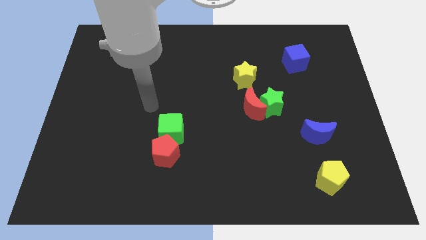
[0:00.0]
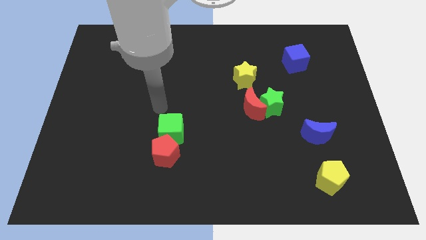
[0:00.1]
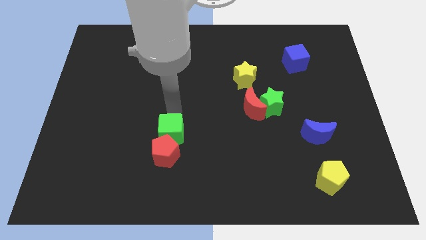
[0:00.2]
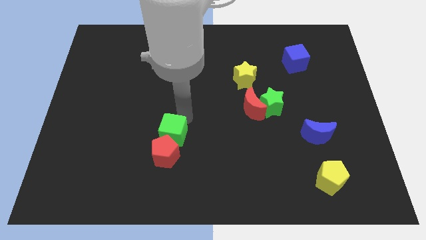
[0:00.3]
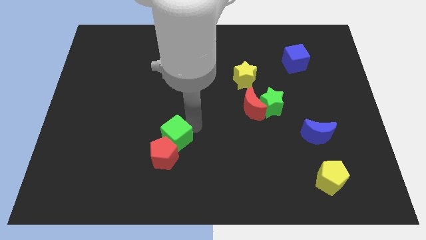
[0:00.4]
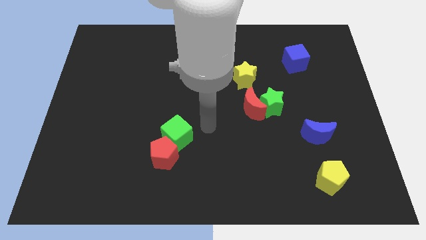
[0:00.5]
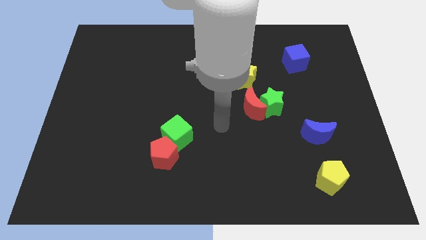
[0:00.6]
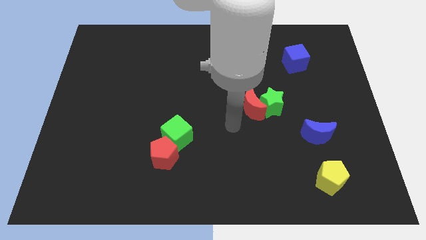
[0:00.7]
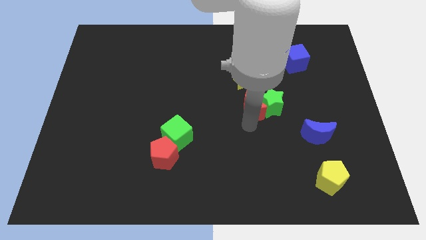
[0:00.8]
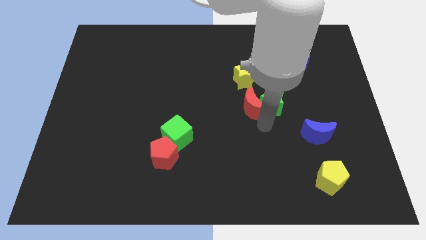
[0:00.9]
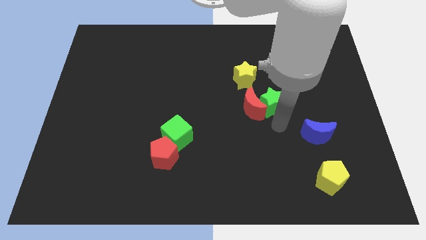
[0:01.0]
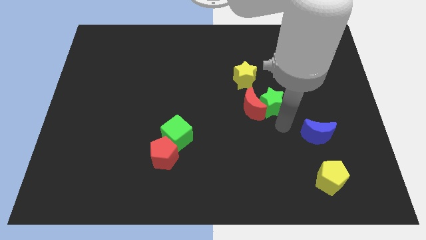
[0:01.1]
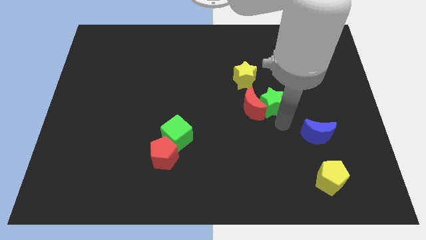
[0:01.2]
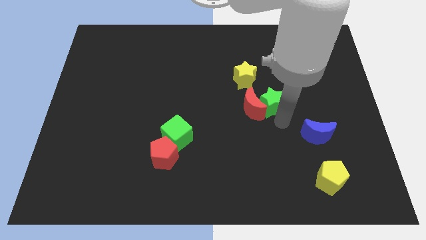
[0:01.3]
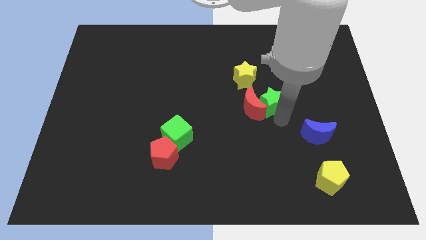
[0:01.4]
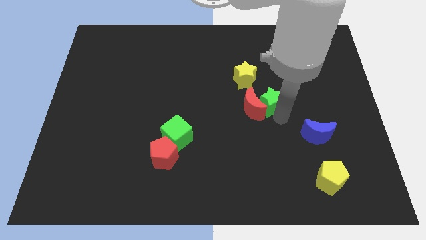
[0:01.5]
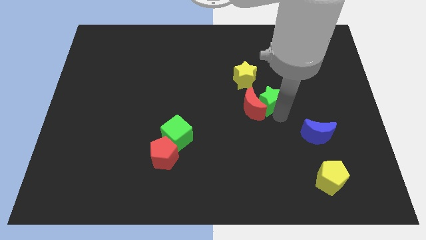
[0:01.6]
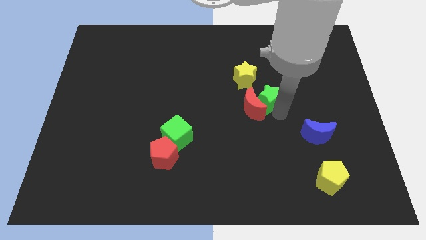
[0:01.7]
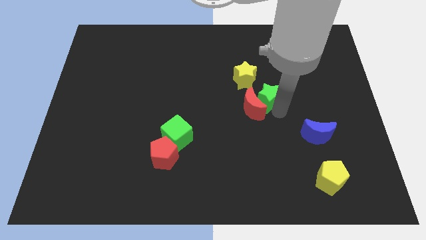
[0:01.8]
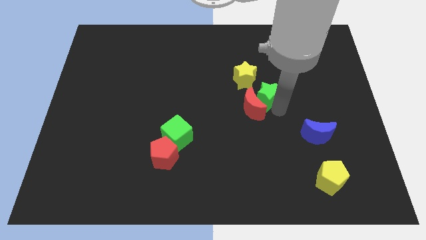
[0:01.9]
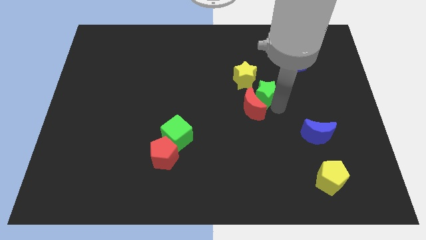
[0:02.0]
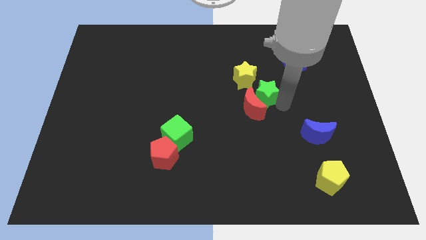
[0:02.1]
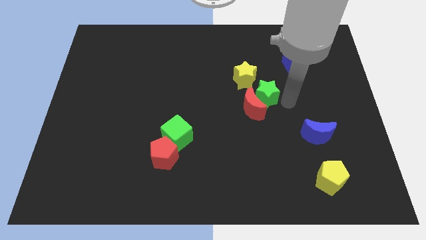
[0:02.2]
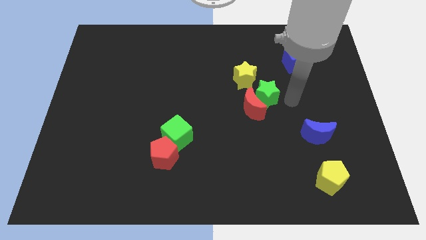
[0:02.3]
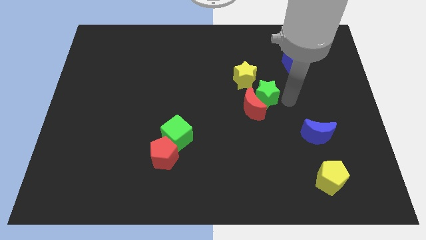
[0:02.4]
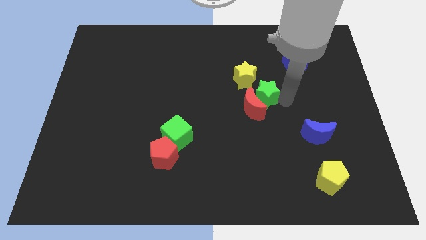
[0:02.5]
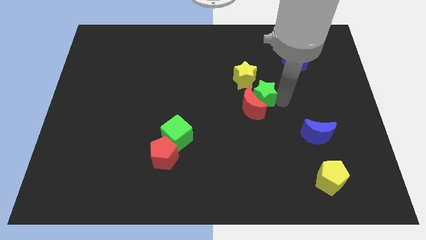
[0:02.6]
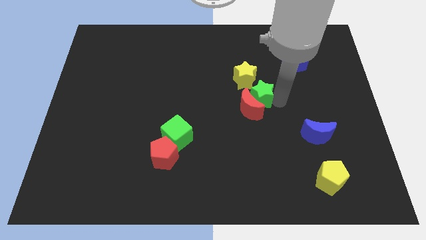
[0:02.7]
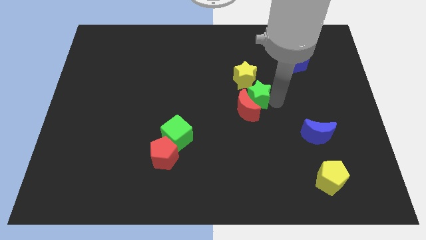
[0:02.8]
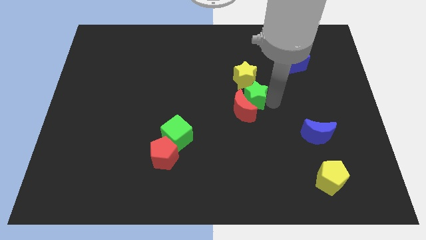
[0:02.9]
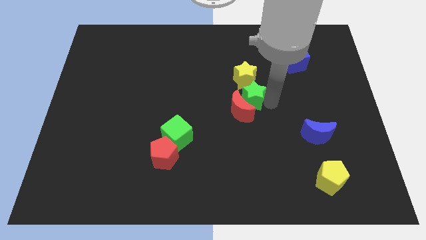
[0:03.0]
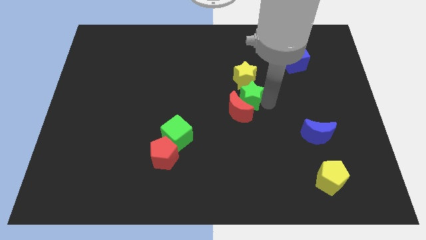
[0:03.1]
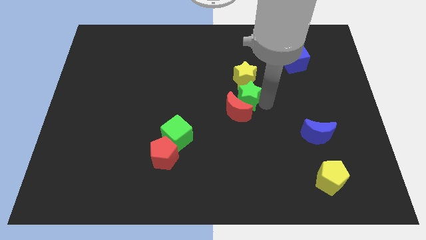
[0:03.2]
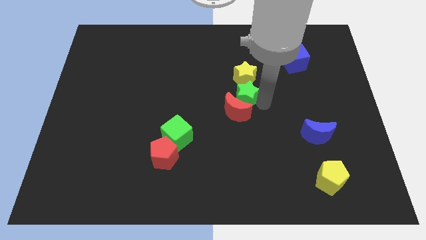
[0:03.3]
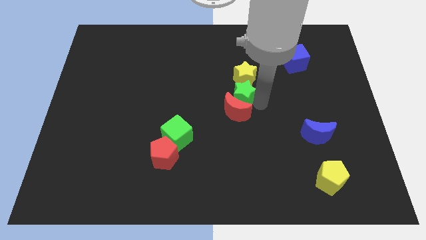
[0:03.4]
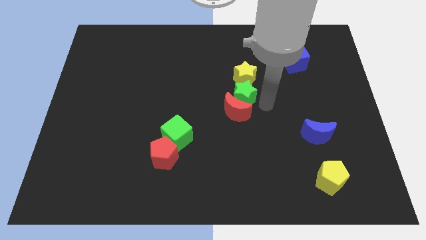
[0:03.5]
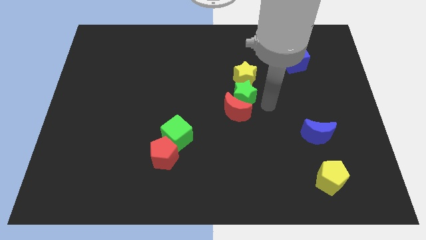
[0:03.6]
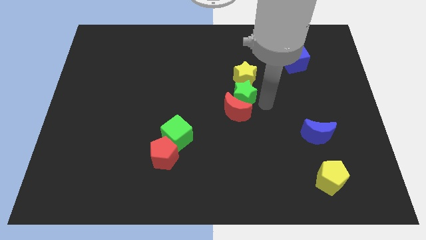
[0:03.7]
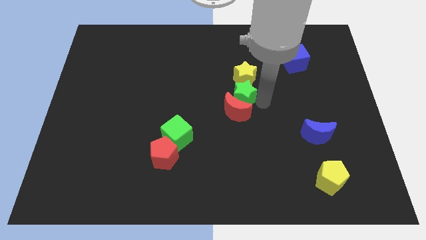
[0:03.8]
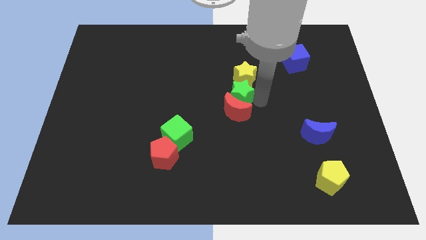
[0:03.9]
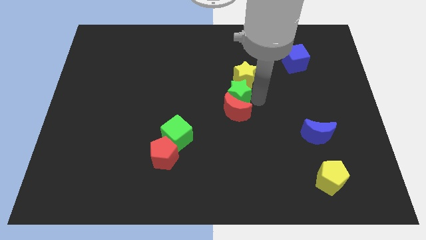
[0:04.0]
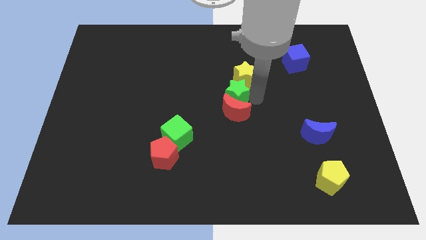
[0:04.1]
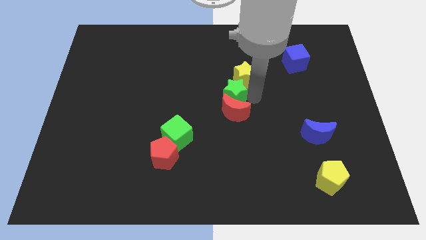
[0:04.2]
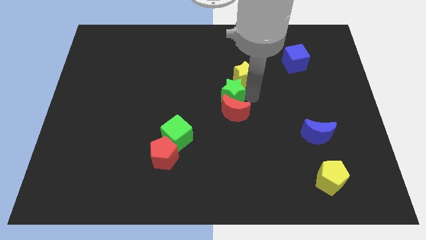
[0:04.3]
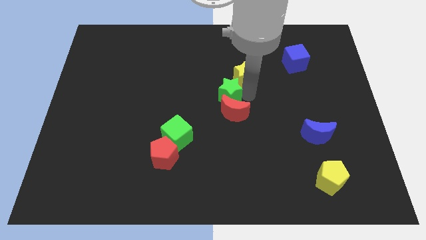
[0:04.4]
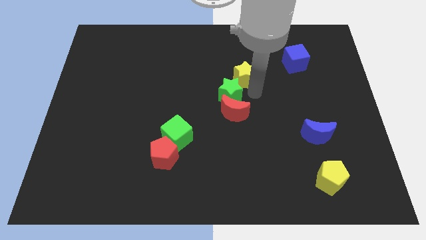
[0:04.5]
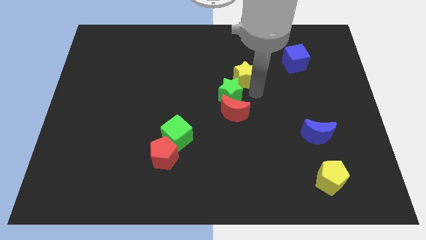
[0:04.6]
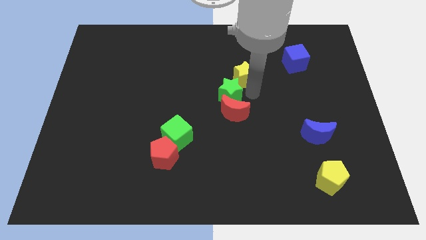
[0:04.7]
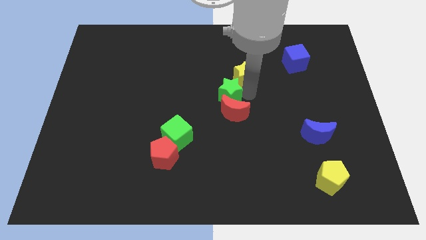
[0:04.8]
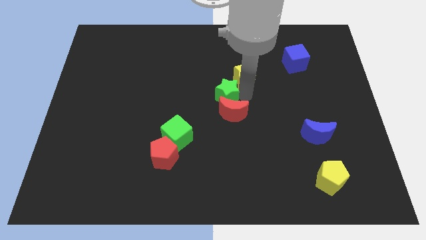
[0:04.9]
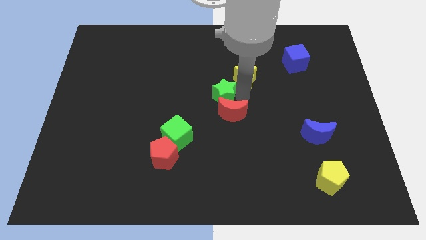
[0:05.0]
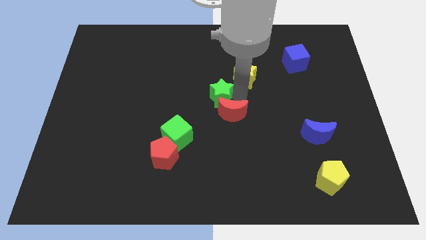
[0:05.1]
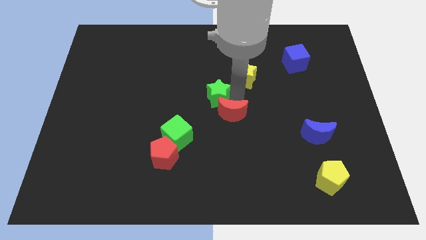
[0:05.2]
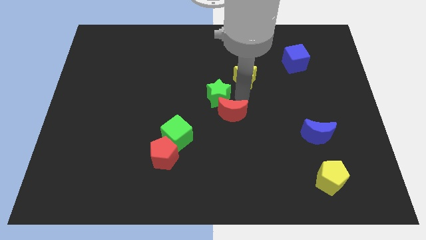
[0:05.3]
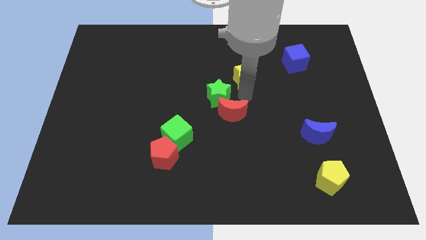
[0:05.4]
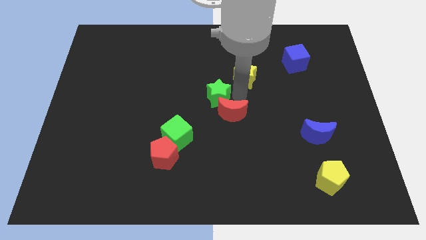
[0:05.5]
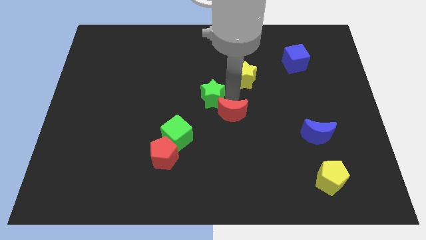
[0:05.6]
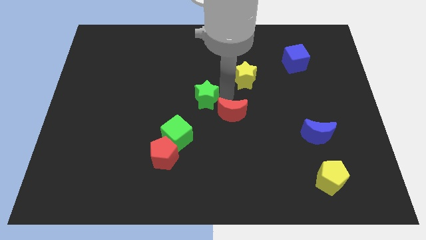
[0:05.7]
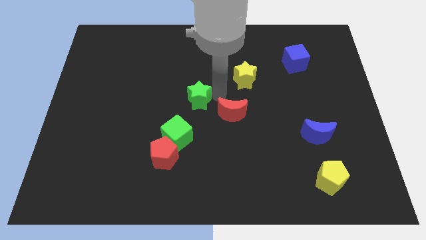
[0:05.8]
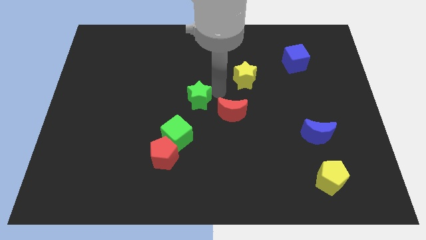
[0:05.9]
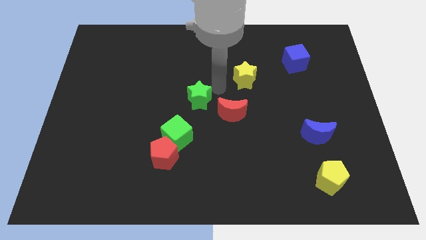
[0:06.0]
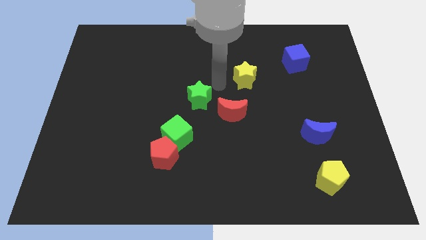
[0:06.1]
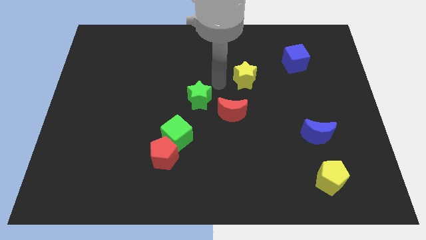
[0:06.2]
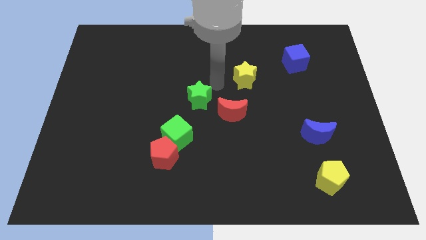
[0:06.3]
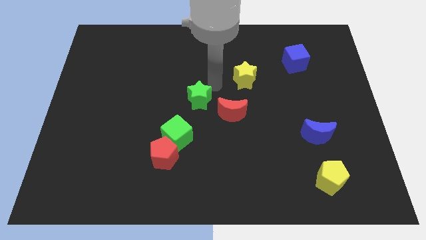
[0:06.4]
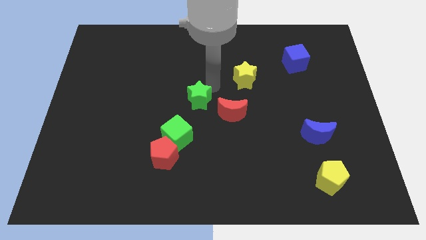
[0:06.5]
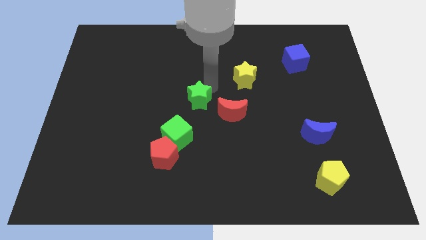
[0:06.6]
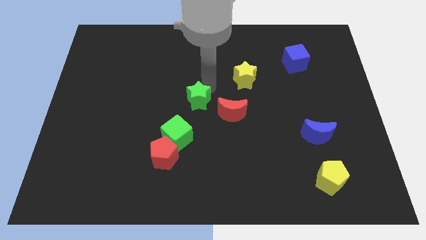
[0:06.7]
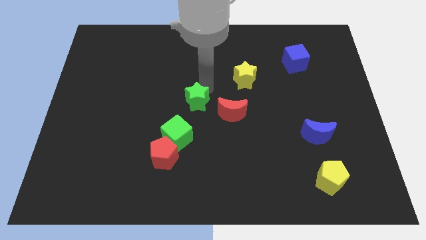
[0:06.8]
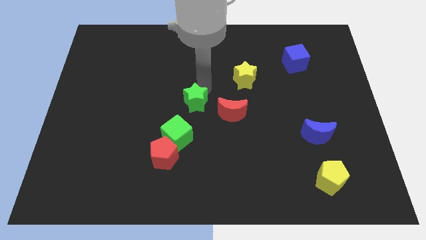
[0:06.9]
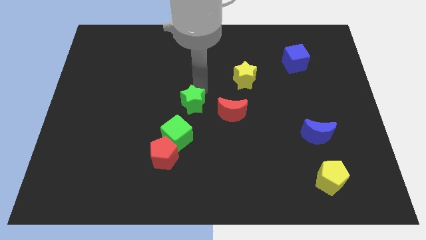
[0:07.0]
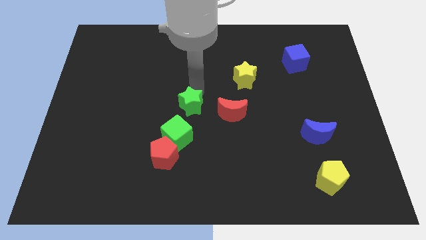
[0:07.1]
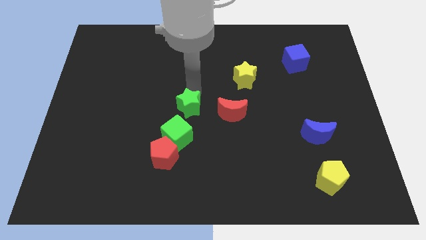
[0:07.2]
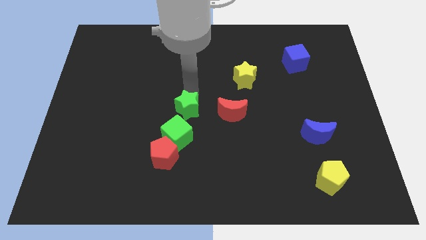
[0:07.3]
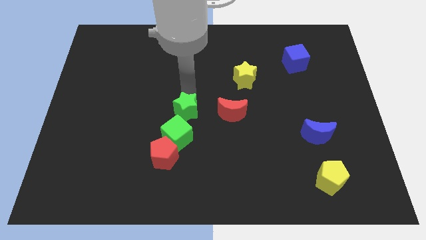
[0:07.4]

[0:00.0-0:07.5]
slide the green star to the left

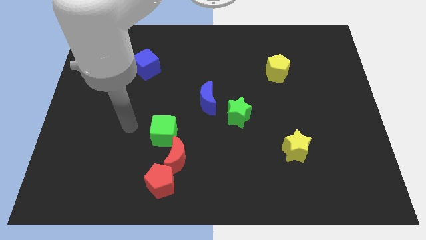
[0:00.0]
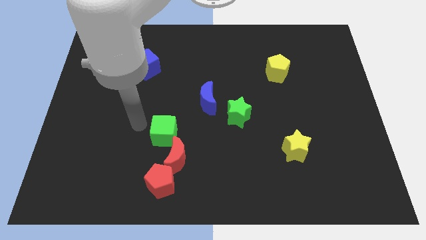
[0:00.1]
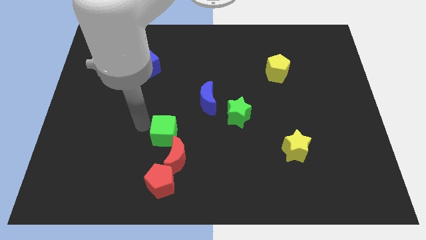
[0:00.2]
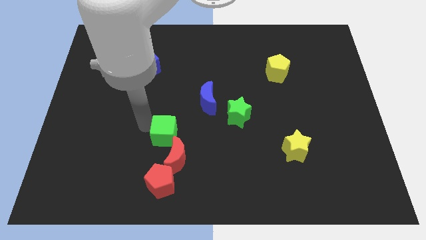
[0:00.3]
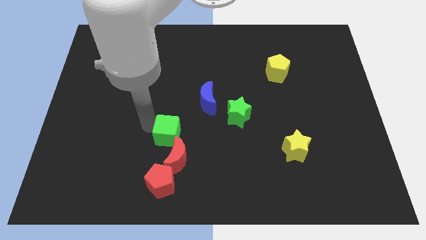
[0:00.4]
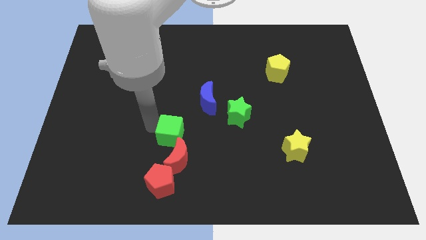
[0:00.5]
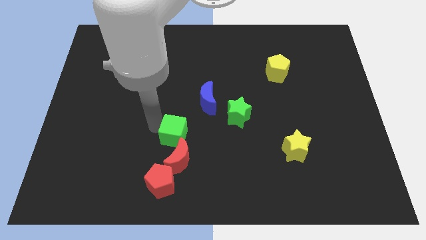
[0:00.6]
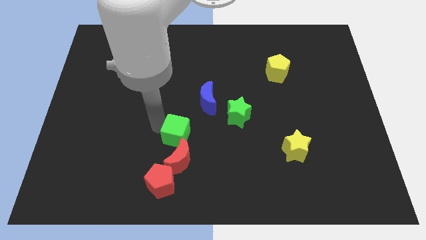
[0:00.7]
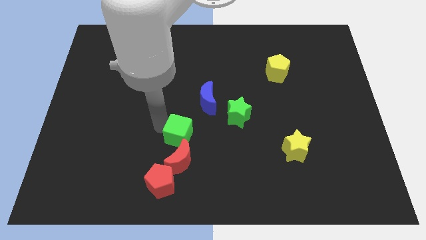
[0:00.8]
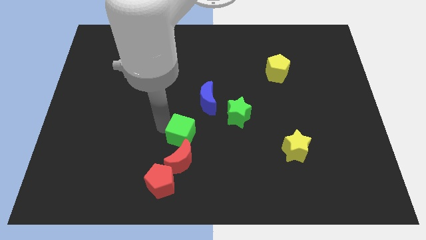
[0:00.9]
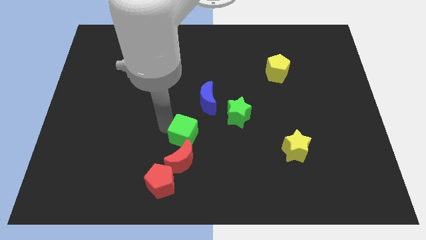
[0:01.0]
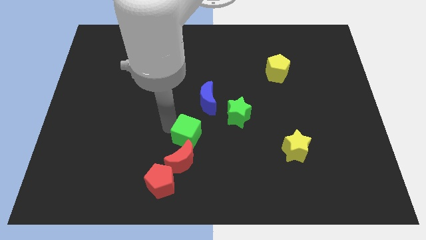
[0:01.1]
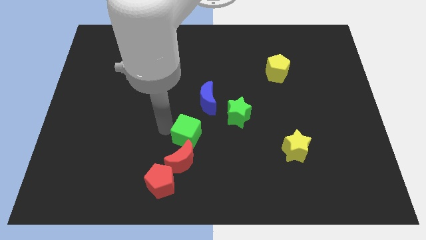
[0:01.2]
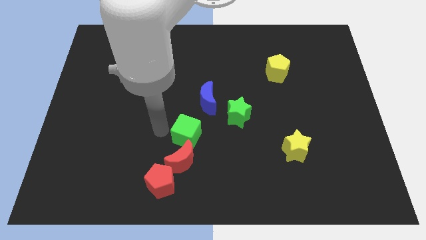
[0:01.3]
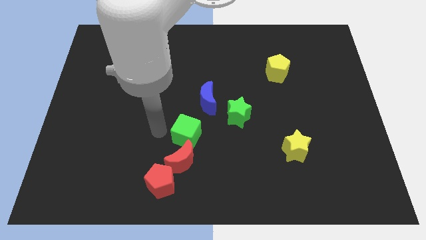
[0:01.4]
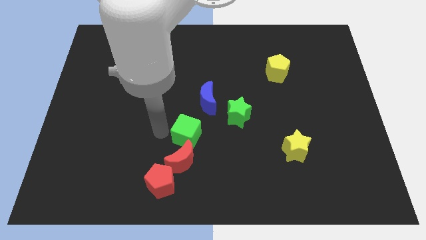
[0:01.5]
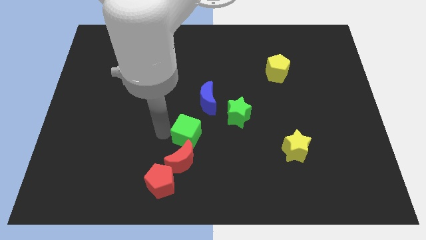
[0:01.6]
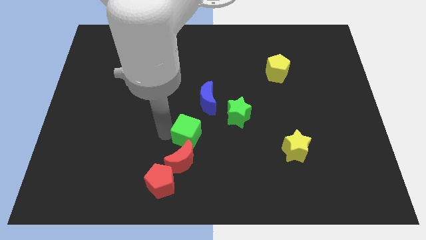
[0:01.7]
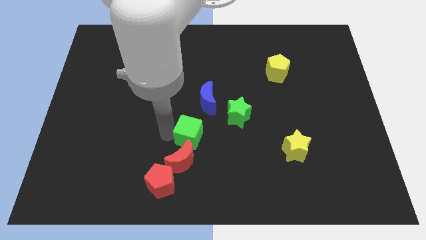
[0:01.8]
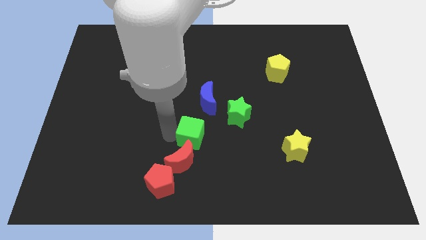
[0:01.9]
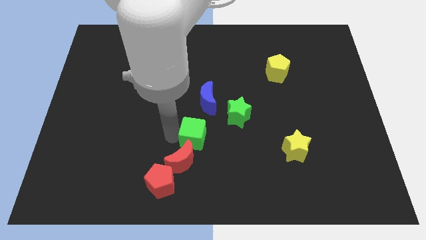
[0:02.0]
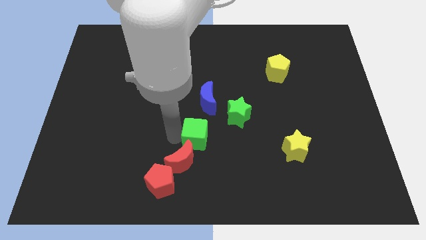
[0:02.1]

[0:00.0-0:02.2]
move the green cube to the right a bit
